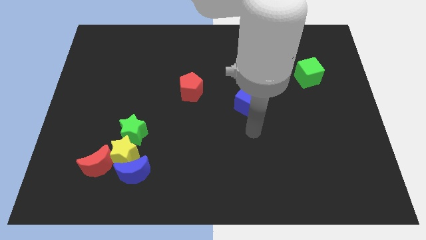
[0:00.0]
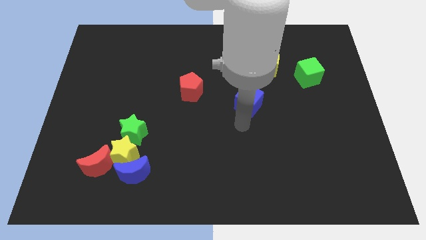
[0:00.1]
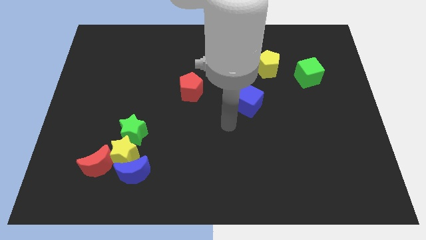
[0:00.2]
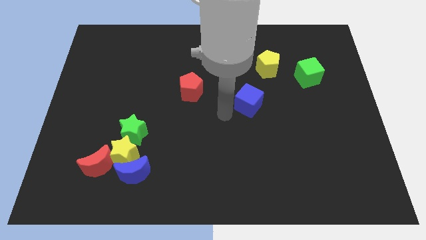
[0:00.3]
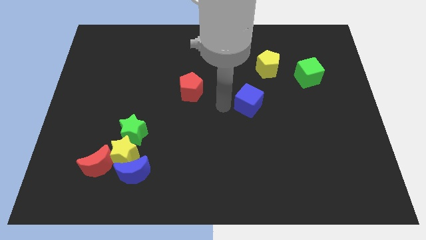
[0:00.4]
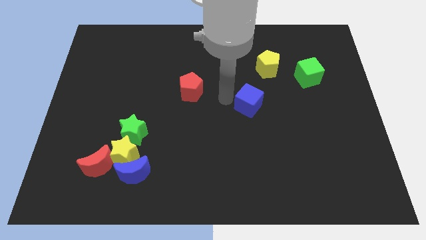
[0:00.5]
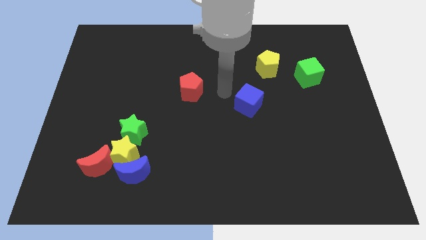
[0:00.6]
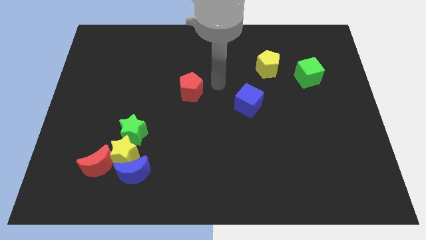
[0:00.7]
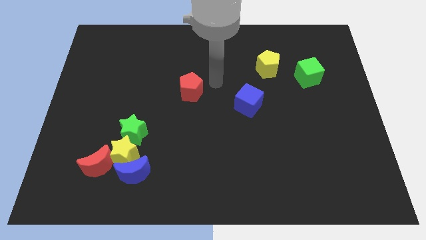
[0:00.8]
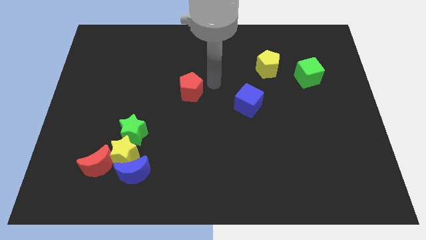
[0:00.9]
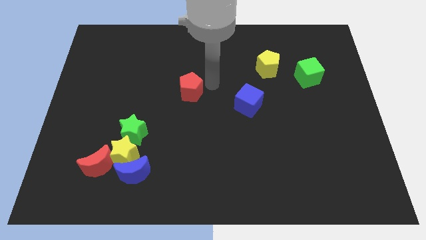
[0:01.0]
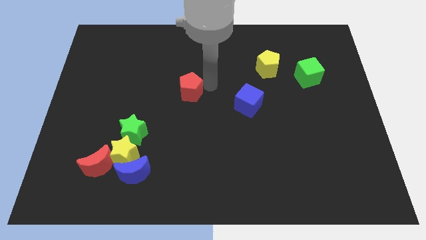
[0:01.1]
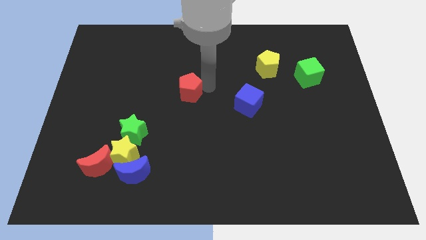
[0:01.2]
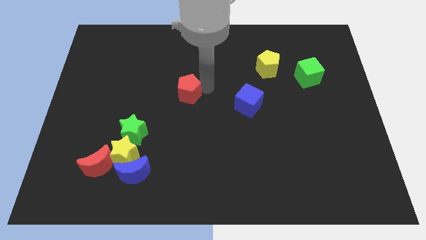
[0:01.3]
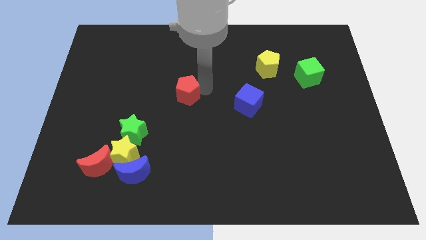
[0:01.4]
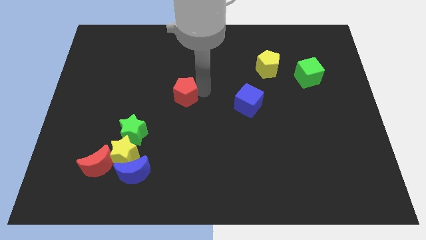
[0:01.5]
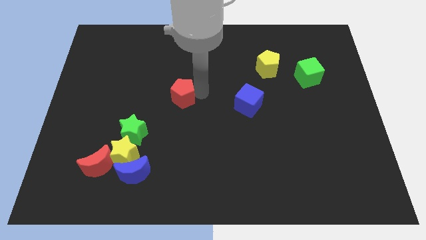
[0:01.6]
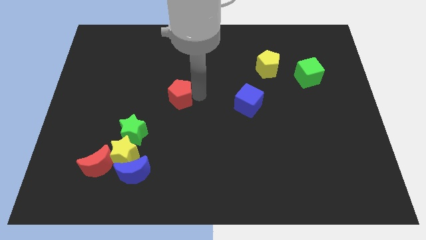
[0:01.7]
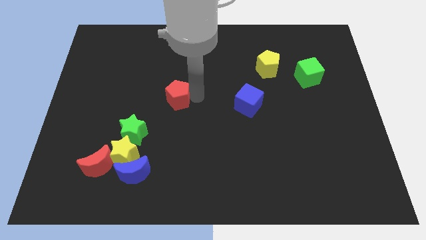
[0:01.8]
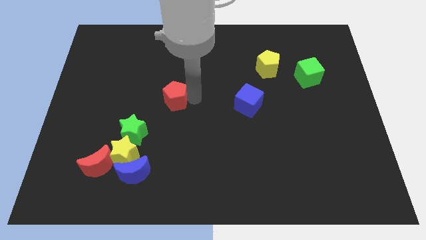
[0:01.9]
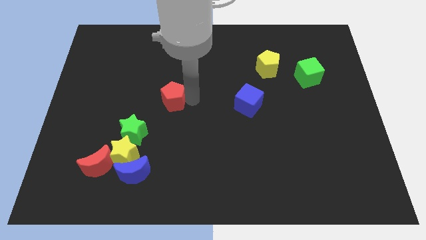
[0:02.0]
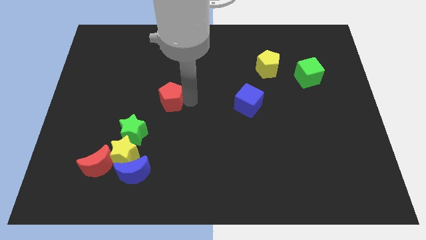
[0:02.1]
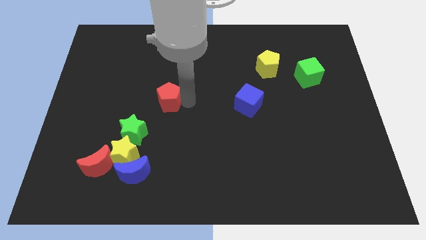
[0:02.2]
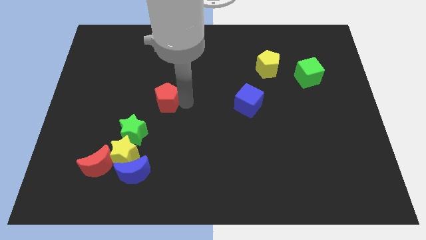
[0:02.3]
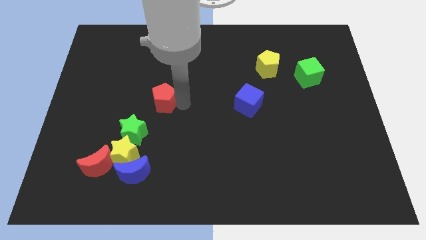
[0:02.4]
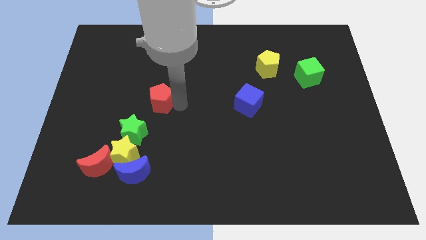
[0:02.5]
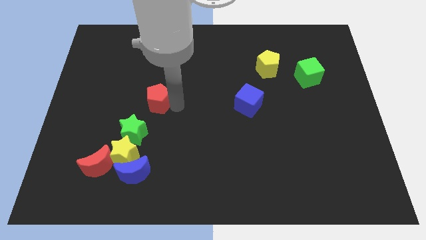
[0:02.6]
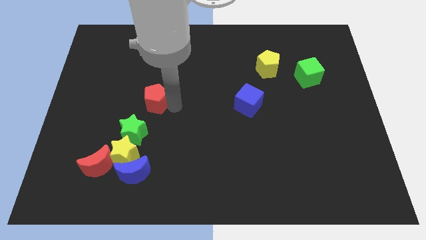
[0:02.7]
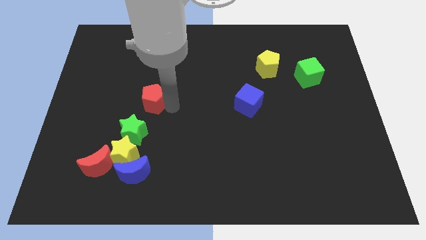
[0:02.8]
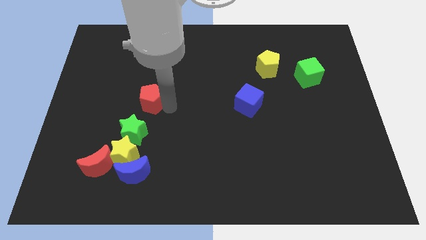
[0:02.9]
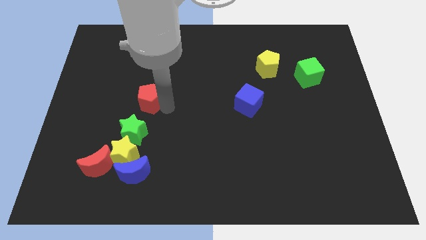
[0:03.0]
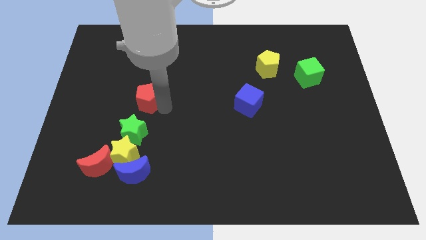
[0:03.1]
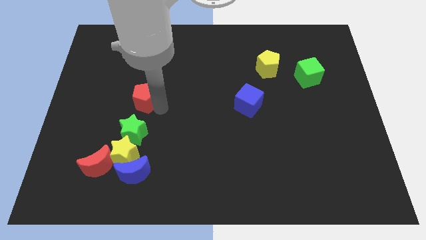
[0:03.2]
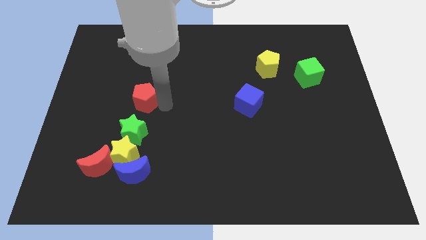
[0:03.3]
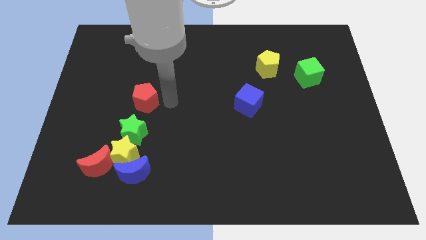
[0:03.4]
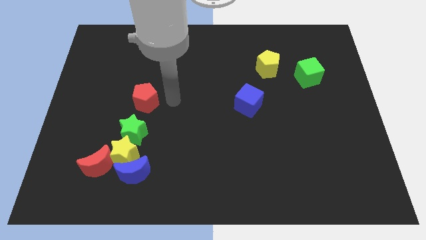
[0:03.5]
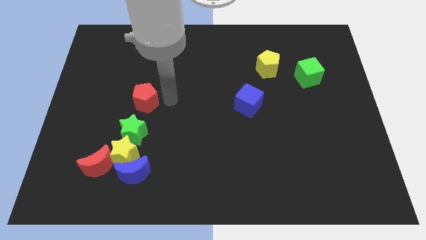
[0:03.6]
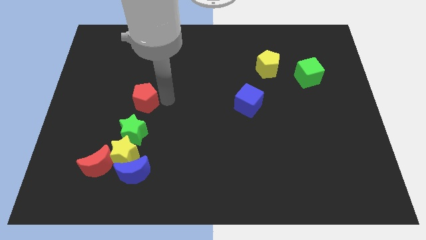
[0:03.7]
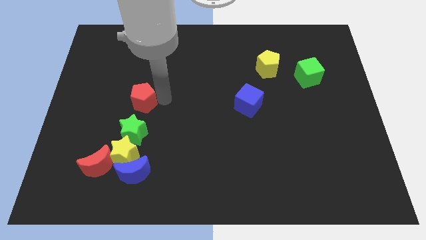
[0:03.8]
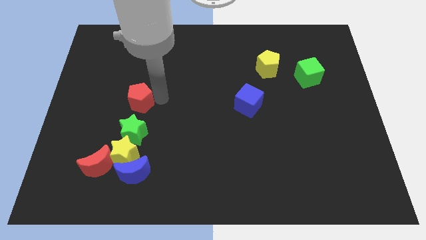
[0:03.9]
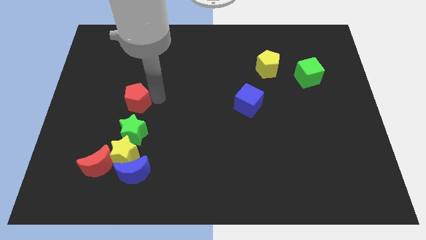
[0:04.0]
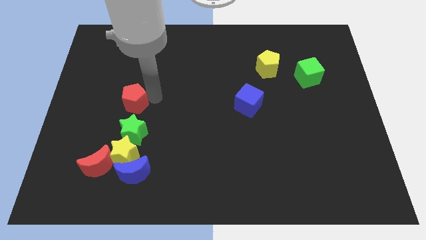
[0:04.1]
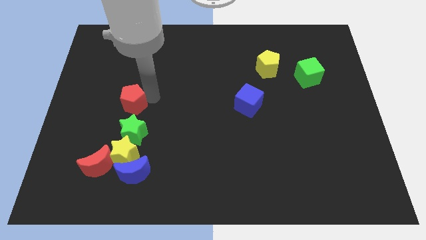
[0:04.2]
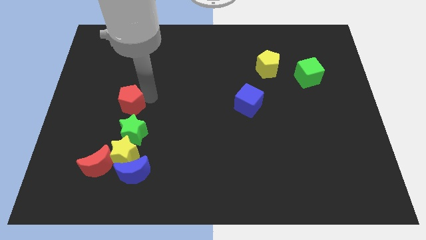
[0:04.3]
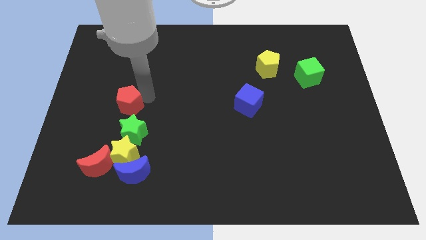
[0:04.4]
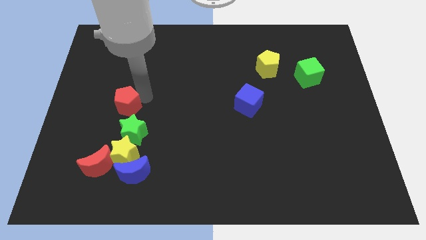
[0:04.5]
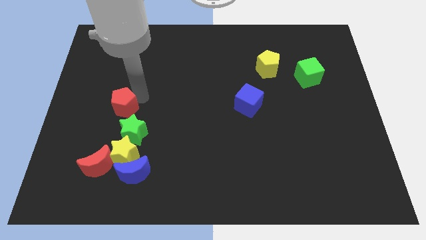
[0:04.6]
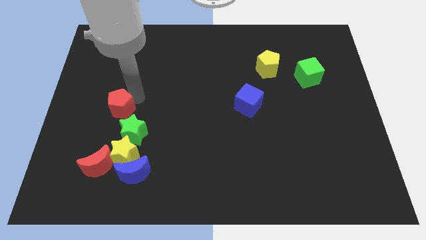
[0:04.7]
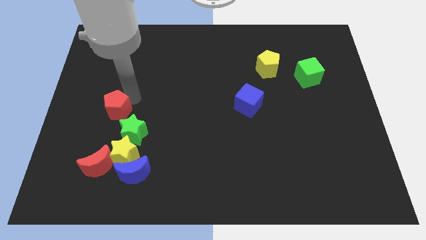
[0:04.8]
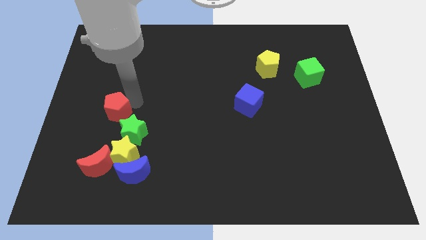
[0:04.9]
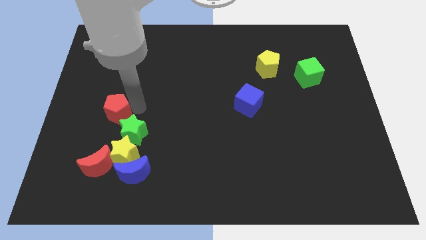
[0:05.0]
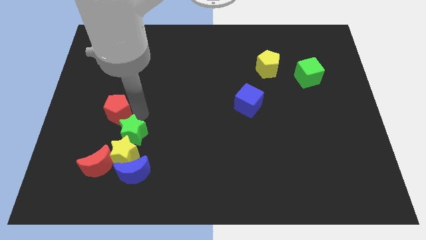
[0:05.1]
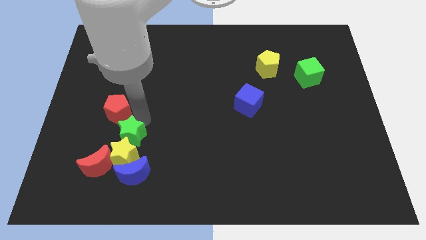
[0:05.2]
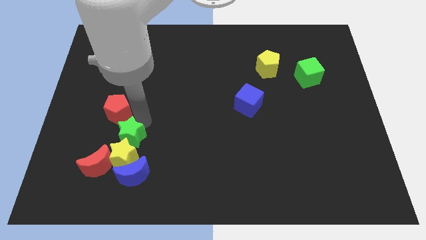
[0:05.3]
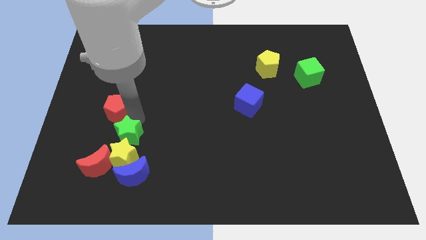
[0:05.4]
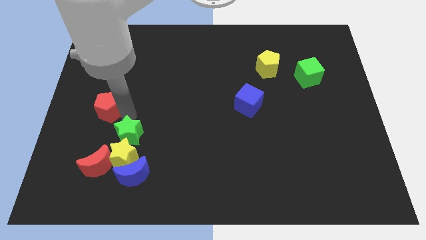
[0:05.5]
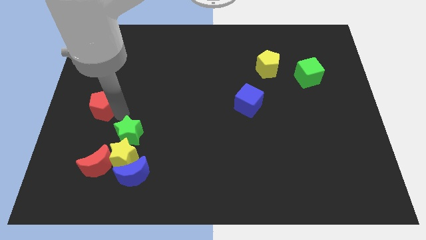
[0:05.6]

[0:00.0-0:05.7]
push the red pentagon to the left side of the board
